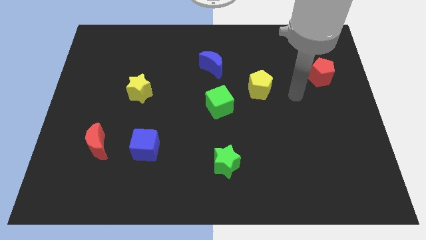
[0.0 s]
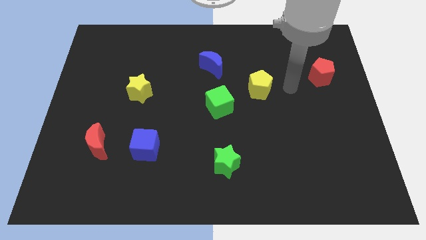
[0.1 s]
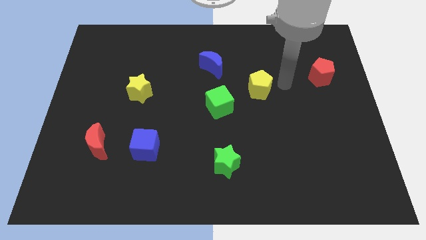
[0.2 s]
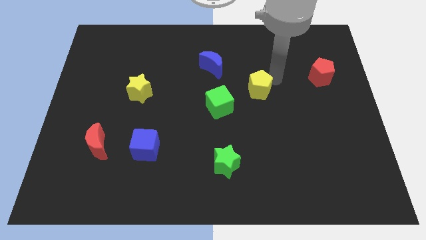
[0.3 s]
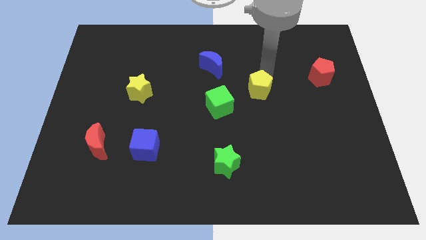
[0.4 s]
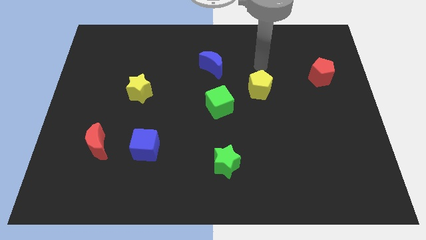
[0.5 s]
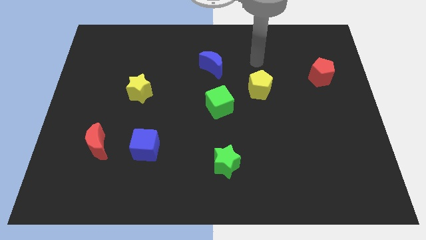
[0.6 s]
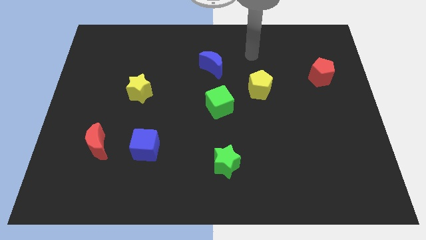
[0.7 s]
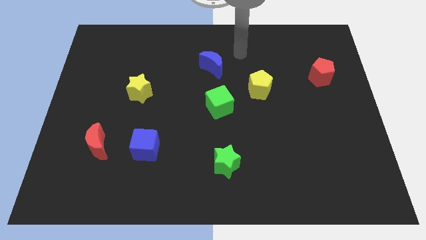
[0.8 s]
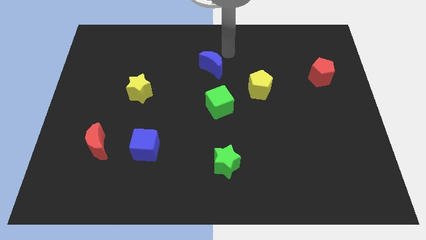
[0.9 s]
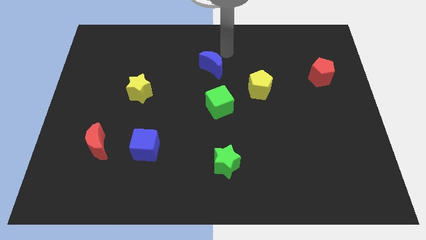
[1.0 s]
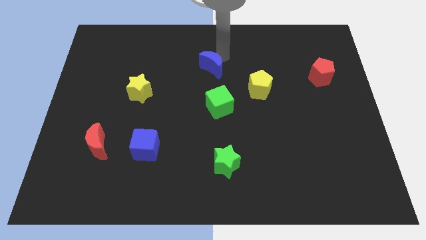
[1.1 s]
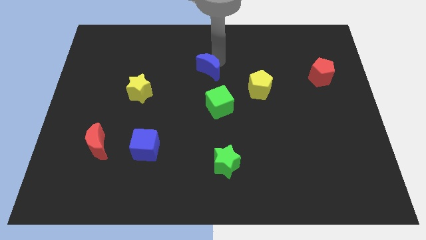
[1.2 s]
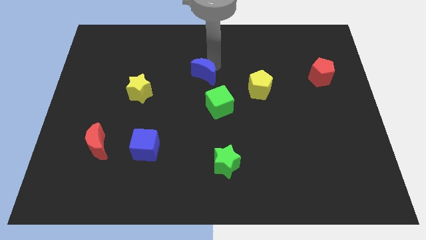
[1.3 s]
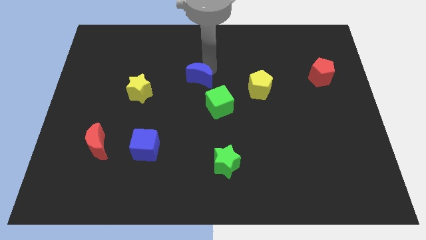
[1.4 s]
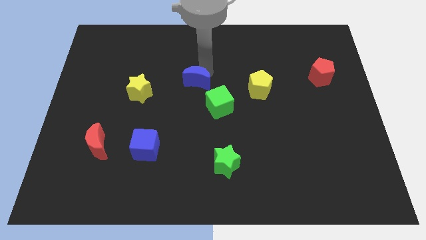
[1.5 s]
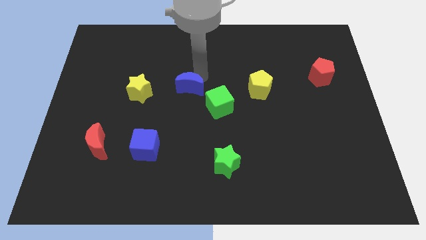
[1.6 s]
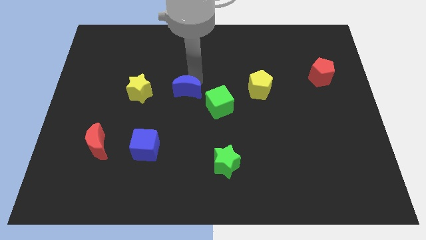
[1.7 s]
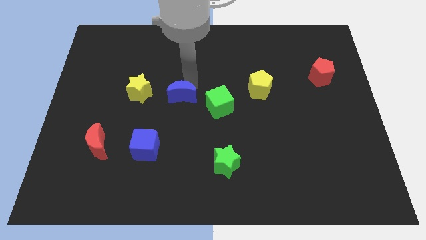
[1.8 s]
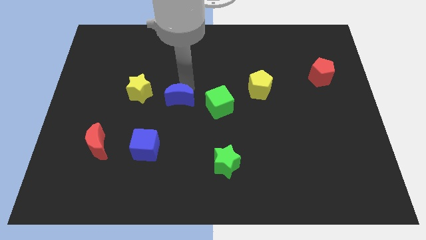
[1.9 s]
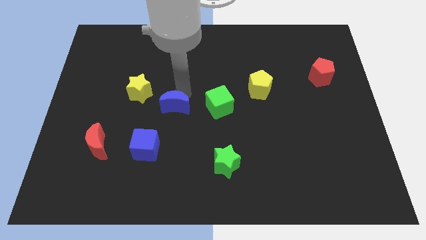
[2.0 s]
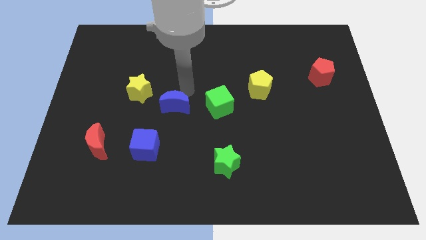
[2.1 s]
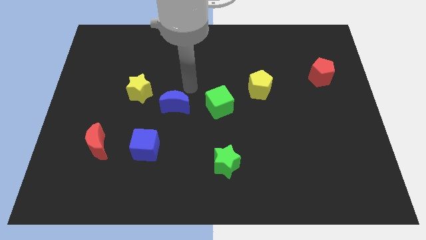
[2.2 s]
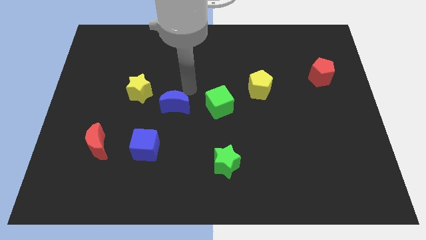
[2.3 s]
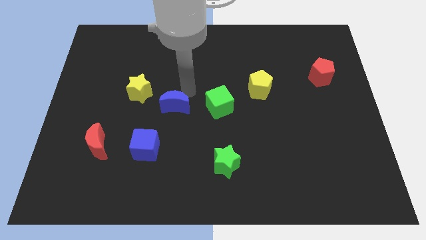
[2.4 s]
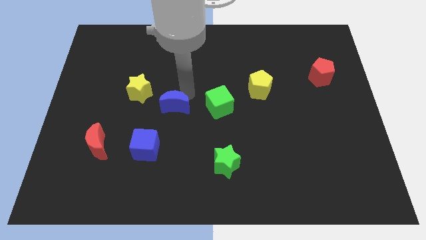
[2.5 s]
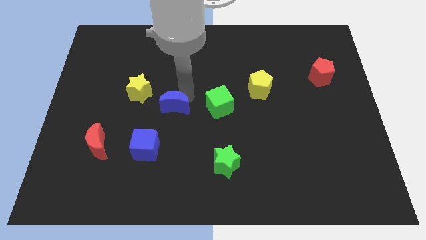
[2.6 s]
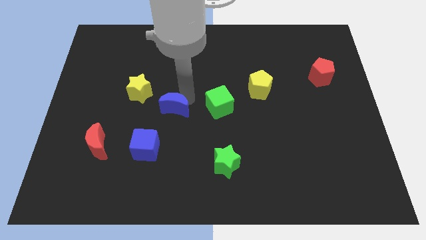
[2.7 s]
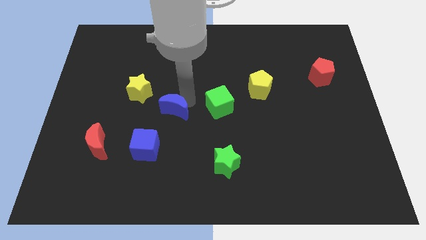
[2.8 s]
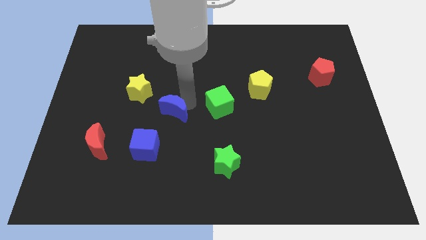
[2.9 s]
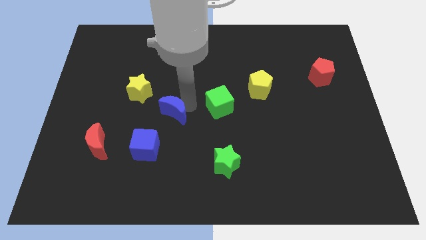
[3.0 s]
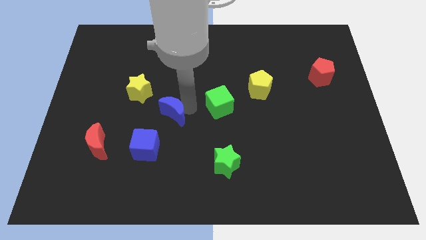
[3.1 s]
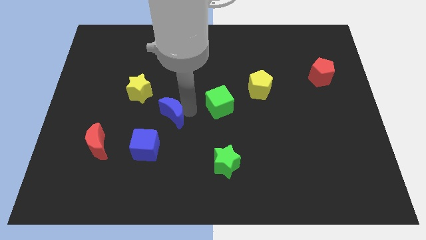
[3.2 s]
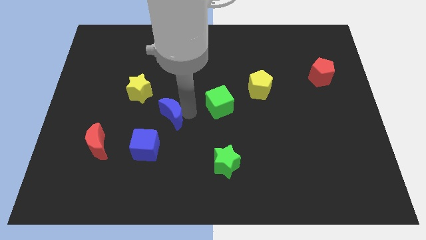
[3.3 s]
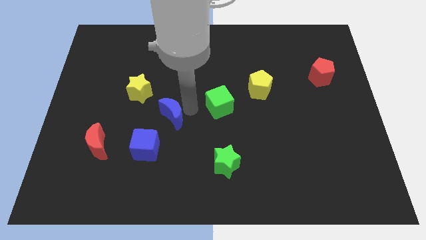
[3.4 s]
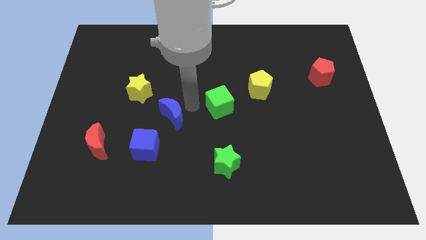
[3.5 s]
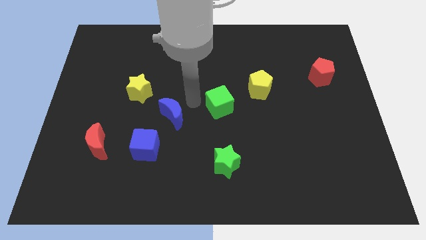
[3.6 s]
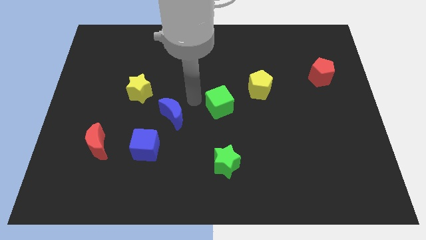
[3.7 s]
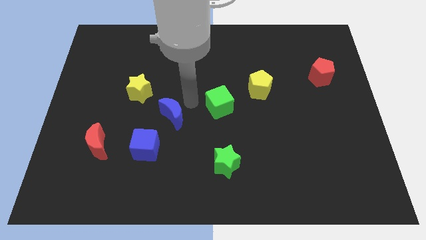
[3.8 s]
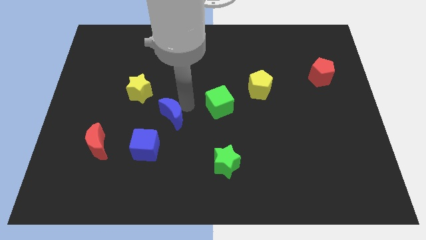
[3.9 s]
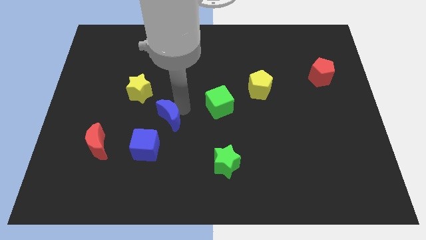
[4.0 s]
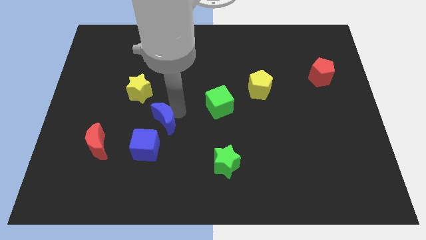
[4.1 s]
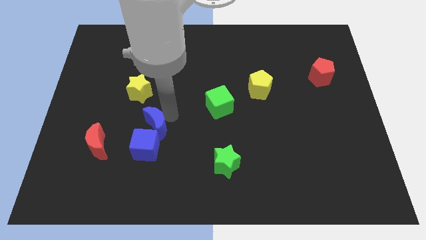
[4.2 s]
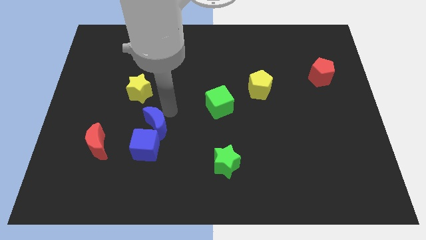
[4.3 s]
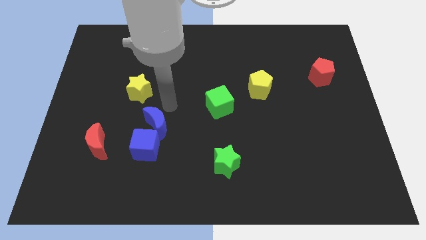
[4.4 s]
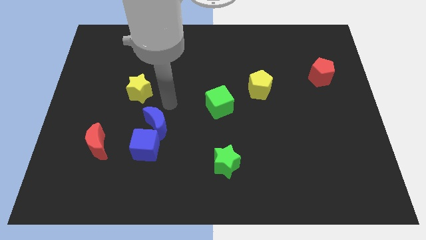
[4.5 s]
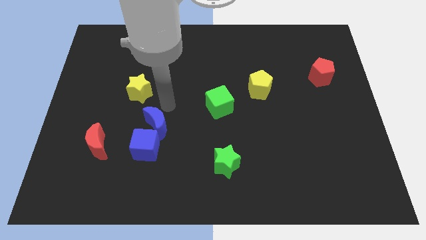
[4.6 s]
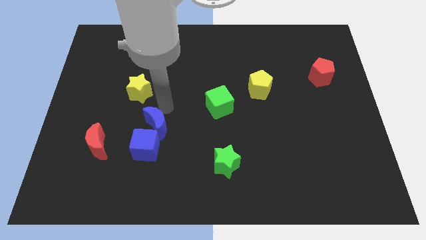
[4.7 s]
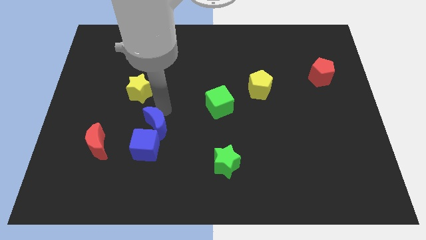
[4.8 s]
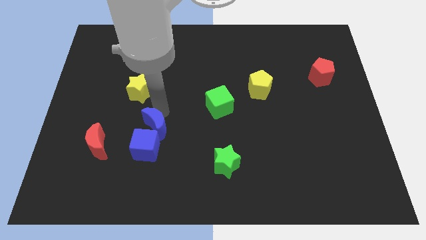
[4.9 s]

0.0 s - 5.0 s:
put the blue moon close to the blue cube

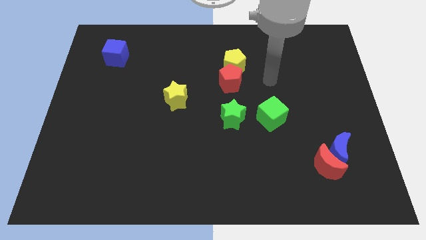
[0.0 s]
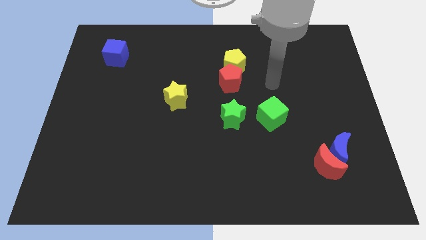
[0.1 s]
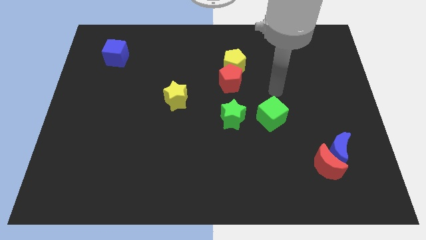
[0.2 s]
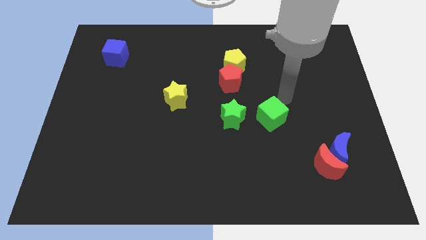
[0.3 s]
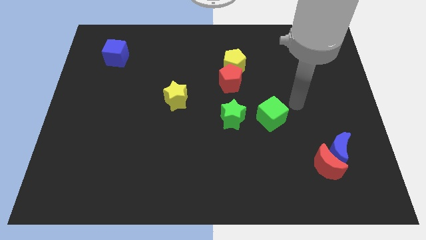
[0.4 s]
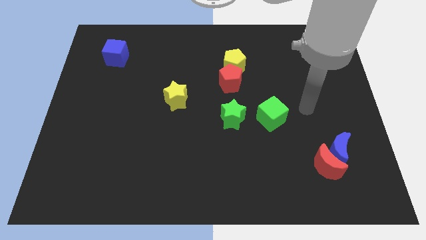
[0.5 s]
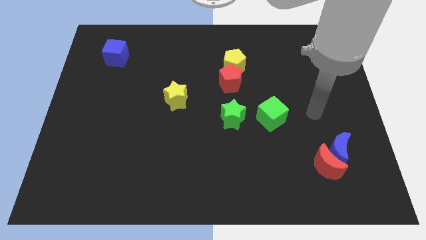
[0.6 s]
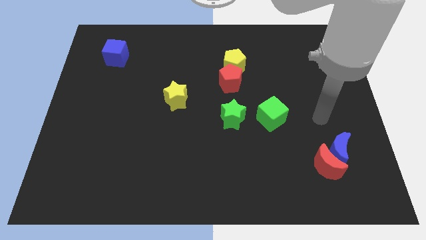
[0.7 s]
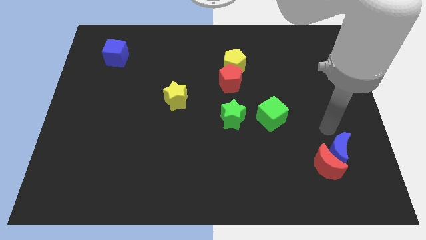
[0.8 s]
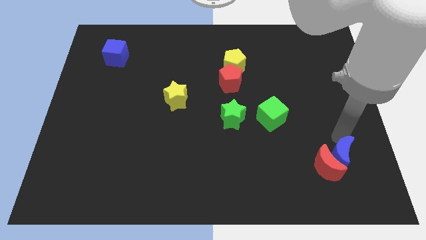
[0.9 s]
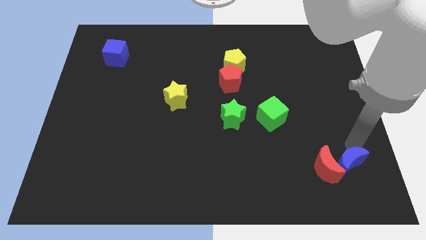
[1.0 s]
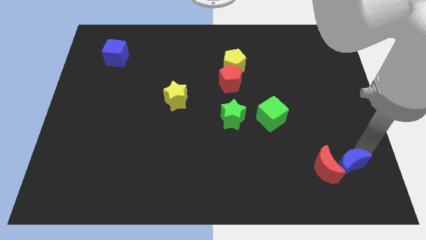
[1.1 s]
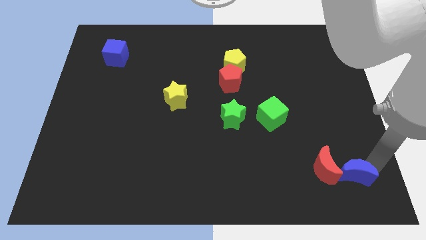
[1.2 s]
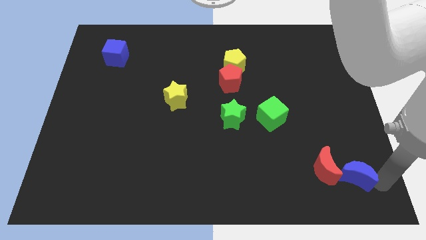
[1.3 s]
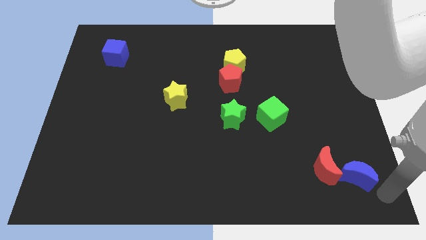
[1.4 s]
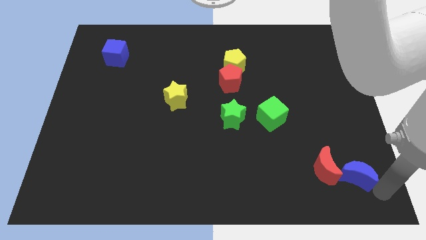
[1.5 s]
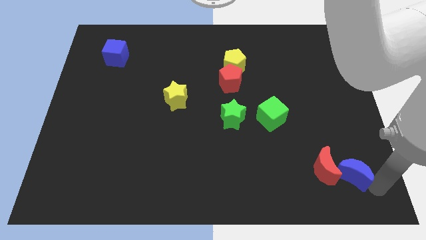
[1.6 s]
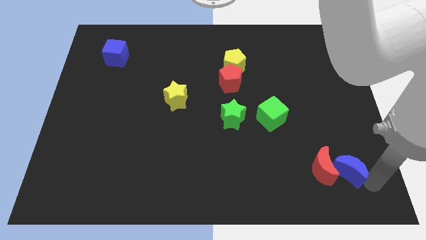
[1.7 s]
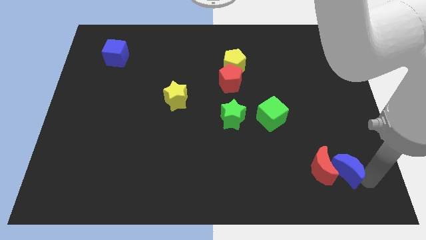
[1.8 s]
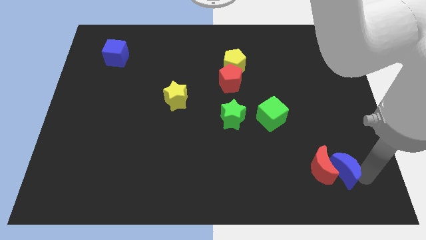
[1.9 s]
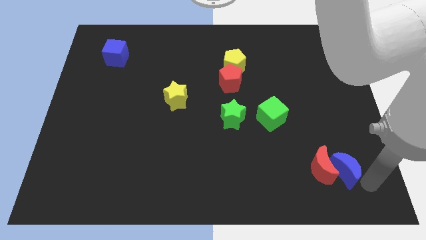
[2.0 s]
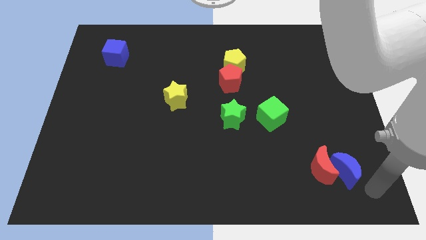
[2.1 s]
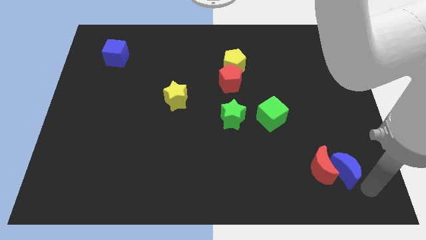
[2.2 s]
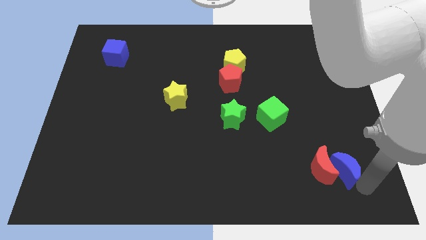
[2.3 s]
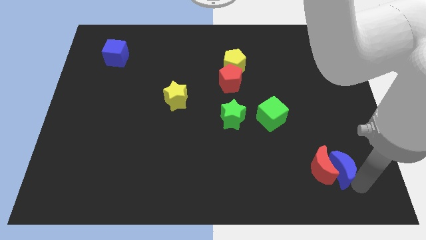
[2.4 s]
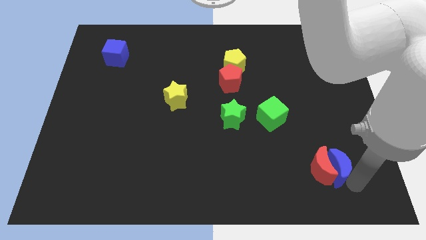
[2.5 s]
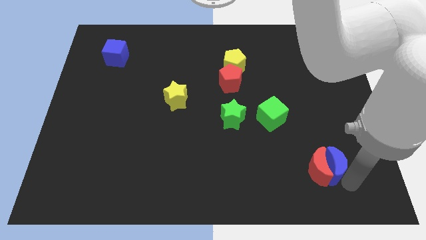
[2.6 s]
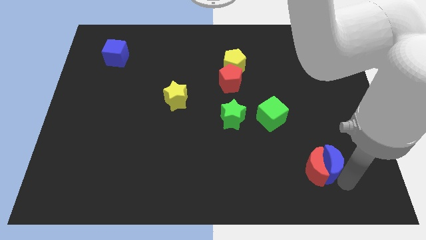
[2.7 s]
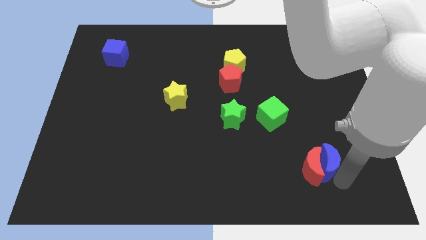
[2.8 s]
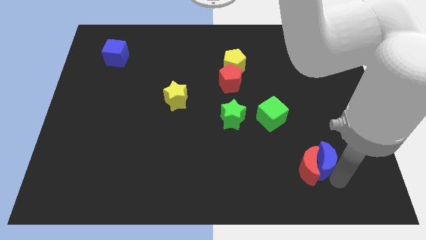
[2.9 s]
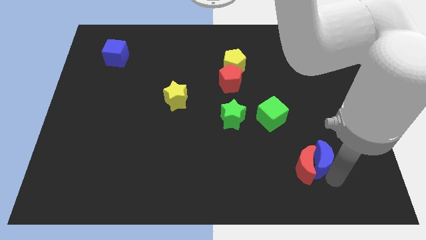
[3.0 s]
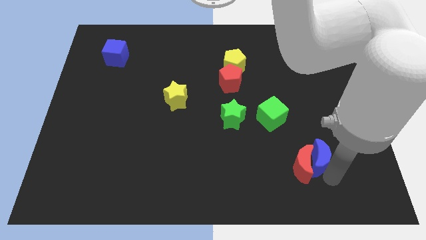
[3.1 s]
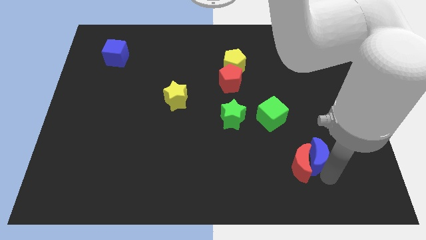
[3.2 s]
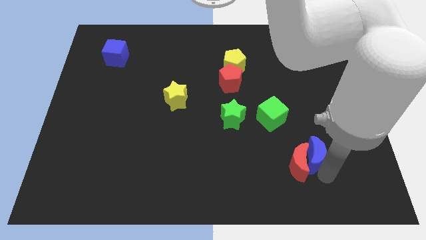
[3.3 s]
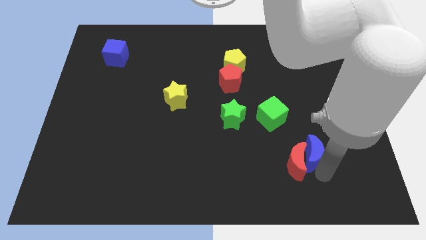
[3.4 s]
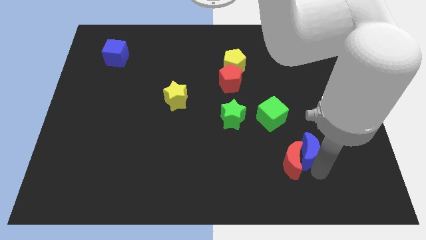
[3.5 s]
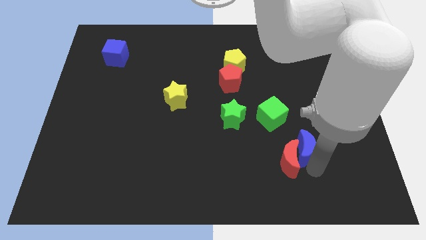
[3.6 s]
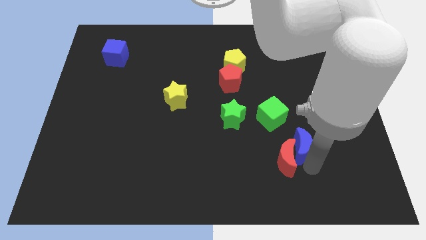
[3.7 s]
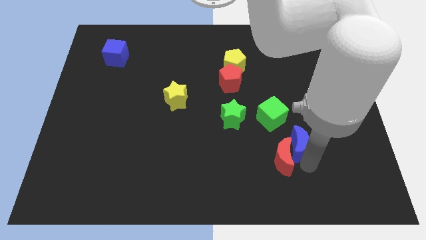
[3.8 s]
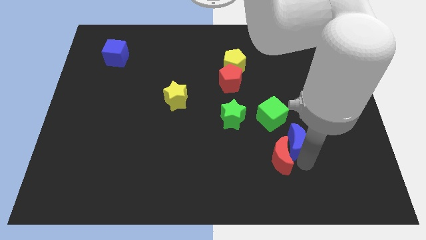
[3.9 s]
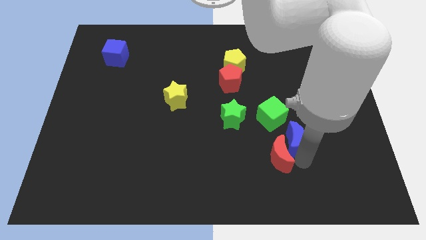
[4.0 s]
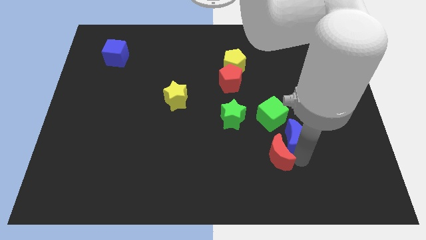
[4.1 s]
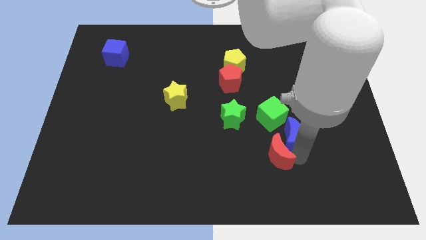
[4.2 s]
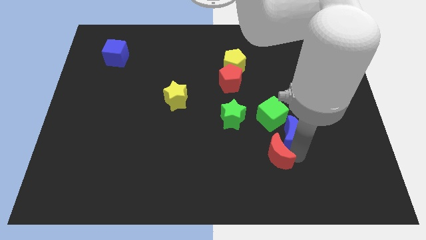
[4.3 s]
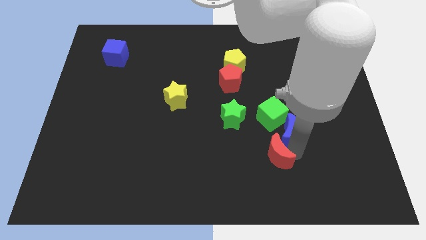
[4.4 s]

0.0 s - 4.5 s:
move the blue moon next to the green cube
